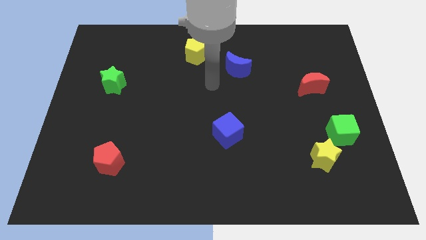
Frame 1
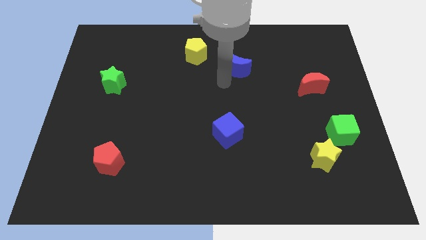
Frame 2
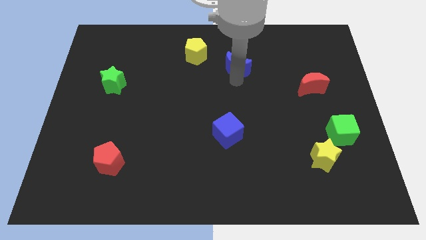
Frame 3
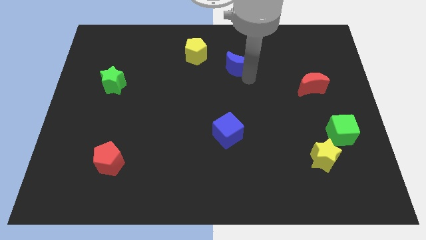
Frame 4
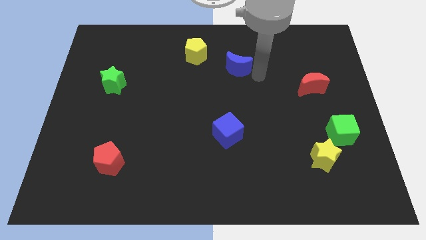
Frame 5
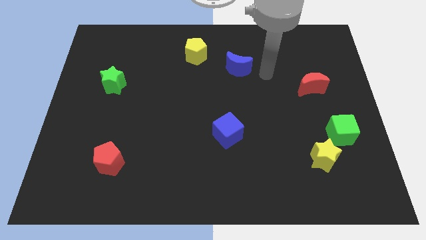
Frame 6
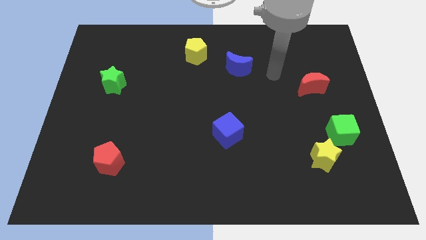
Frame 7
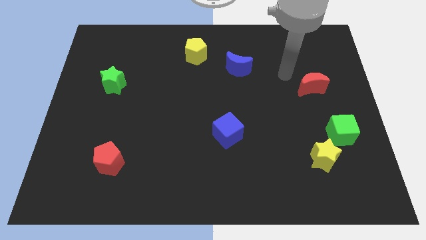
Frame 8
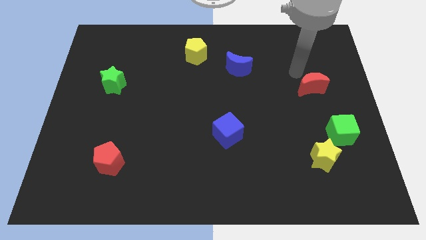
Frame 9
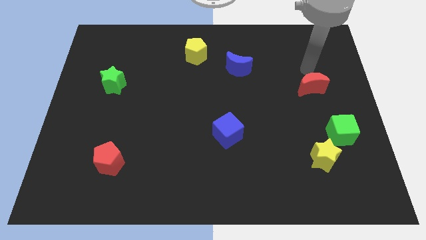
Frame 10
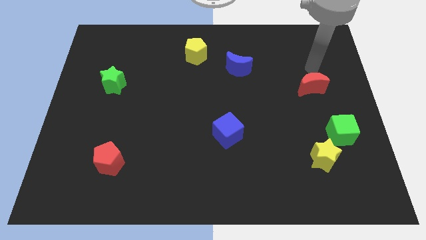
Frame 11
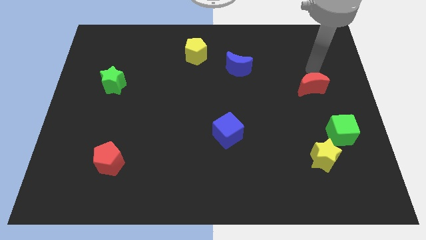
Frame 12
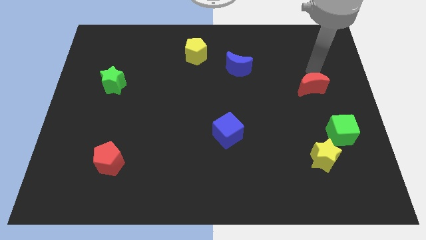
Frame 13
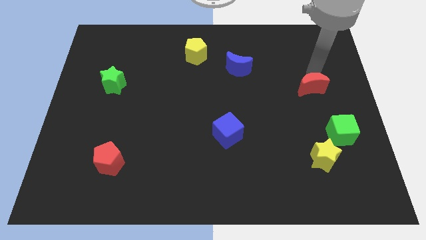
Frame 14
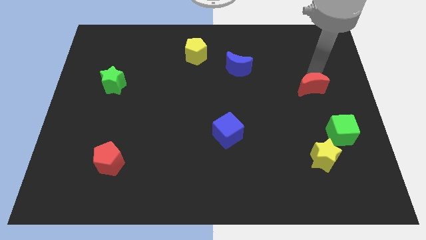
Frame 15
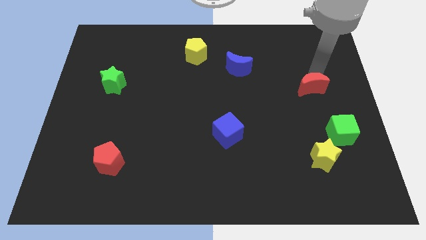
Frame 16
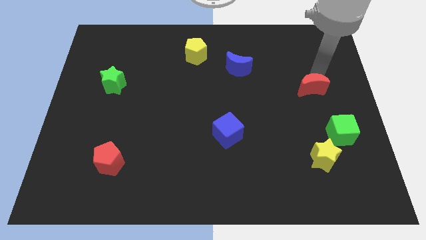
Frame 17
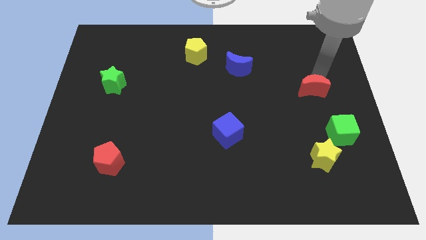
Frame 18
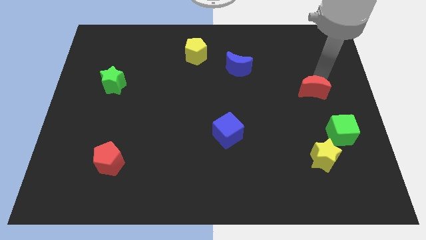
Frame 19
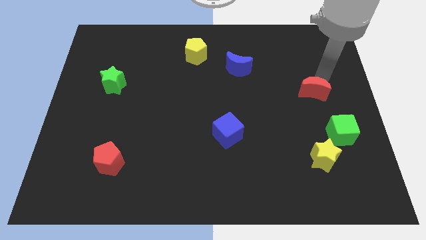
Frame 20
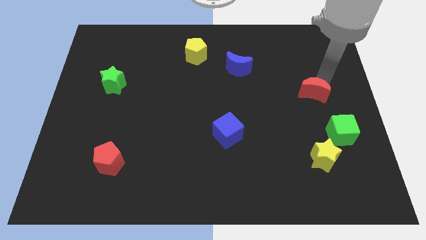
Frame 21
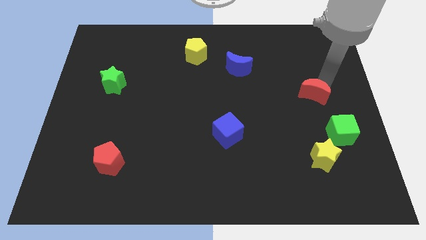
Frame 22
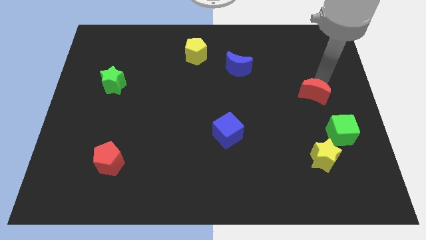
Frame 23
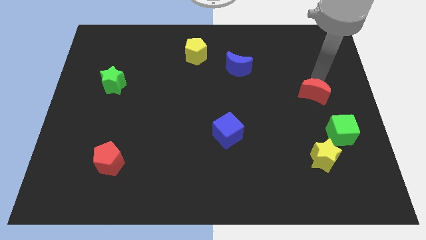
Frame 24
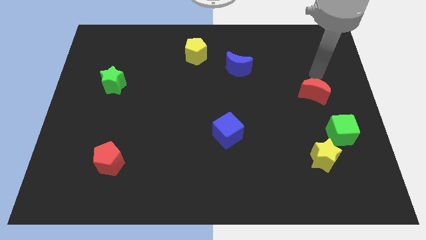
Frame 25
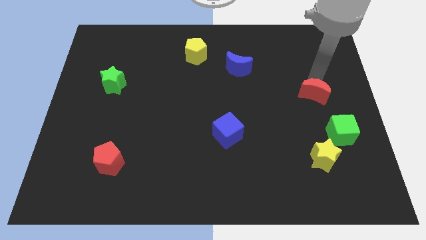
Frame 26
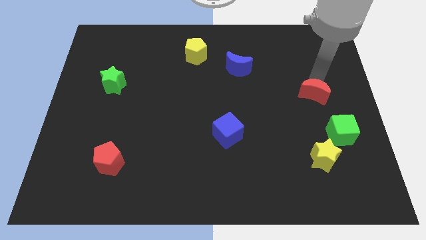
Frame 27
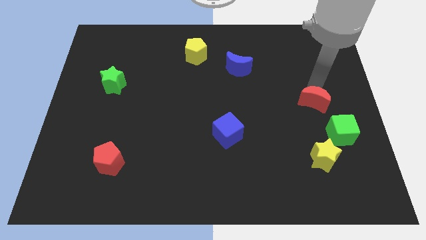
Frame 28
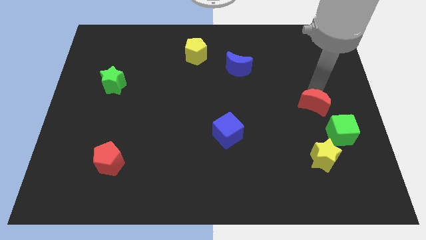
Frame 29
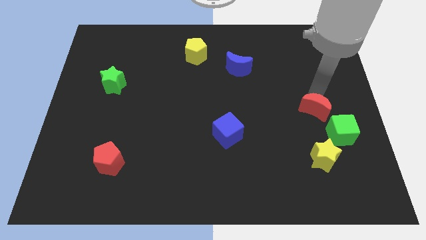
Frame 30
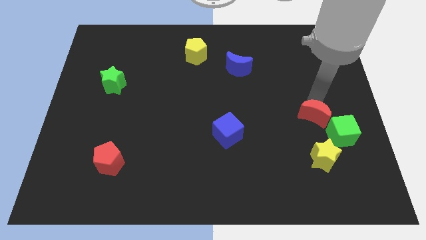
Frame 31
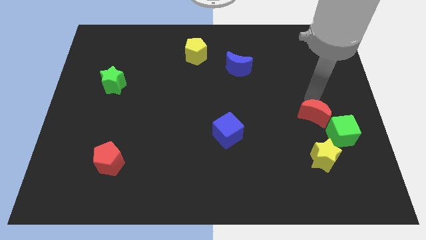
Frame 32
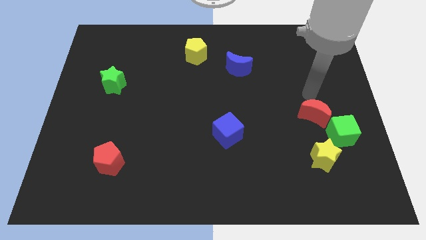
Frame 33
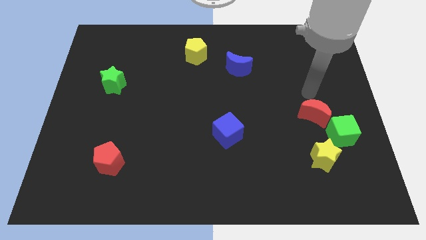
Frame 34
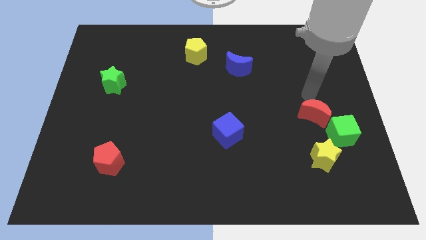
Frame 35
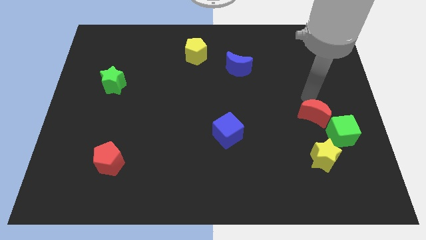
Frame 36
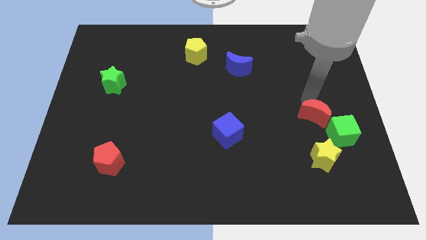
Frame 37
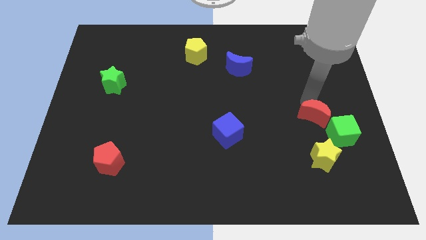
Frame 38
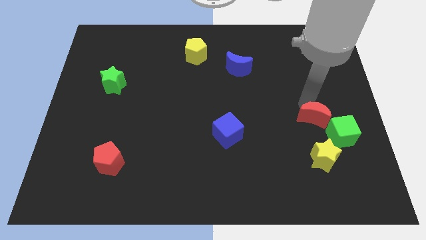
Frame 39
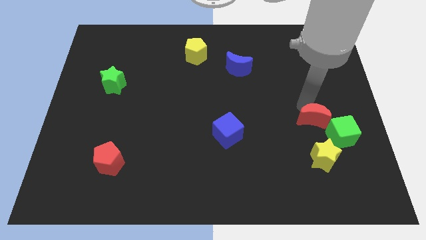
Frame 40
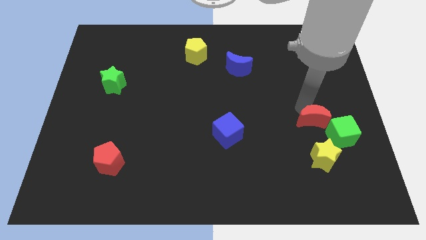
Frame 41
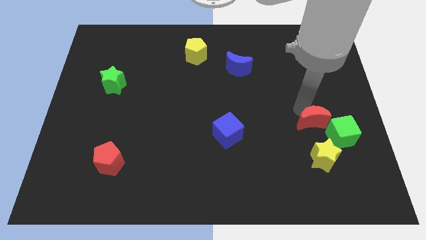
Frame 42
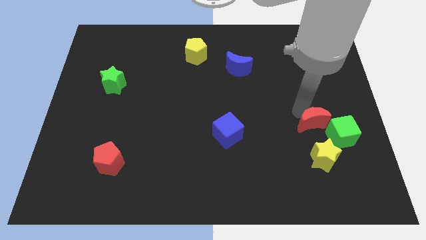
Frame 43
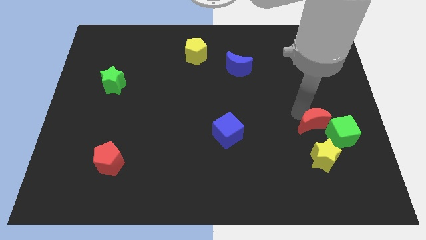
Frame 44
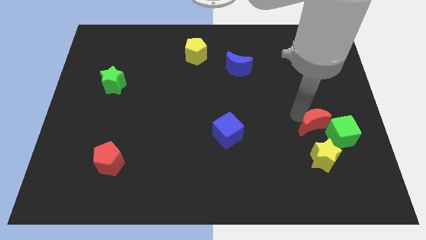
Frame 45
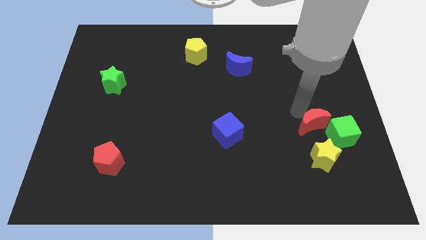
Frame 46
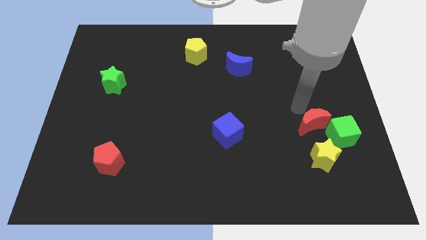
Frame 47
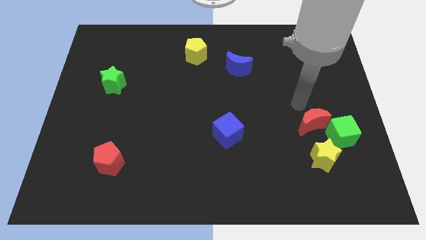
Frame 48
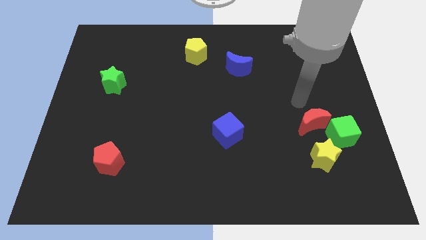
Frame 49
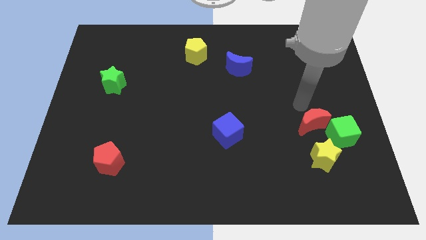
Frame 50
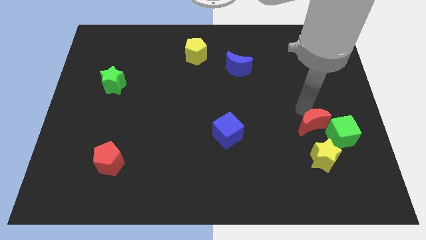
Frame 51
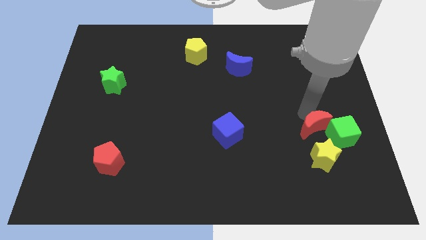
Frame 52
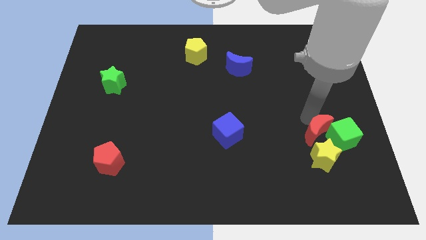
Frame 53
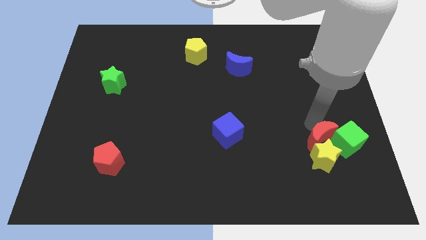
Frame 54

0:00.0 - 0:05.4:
slide the red moon close to the yellow star
